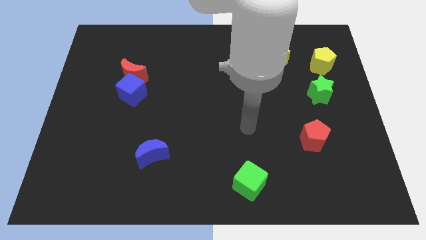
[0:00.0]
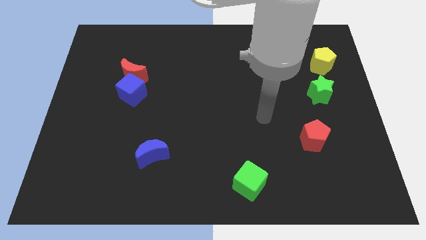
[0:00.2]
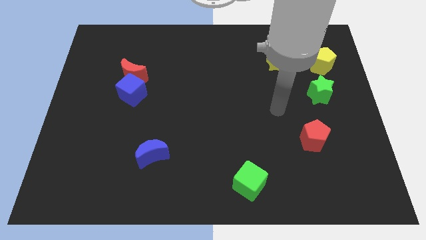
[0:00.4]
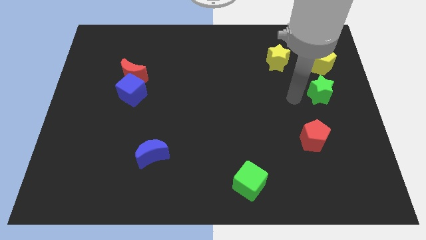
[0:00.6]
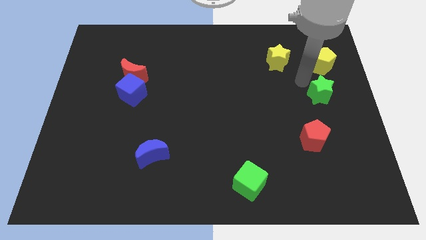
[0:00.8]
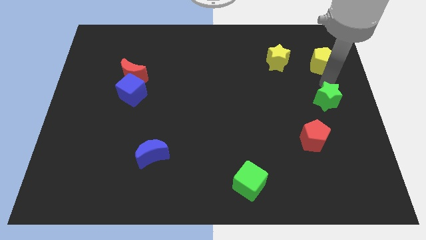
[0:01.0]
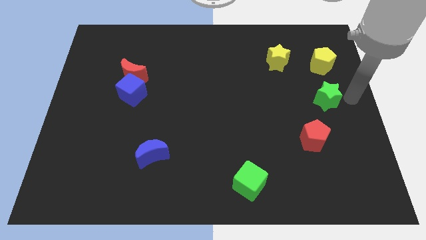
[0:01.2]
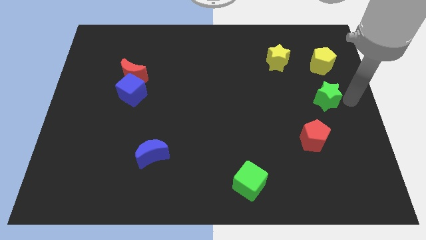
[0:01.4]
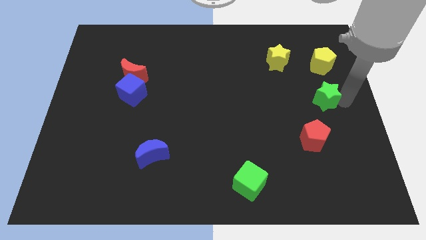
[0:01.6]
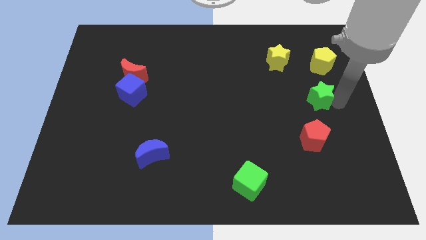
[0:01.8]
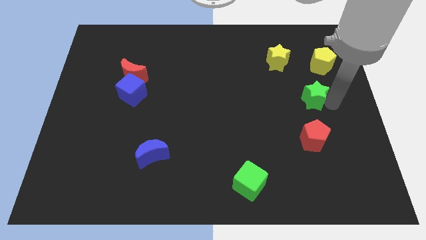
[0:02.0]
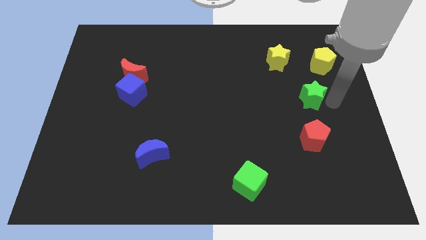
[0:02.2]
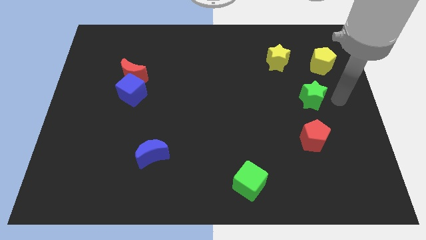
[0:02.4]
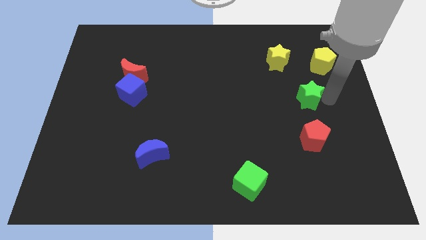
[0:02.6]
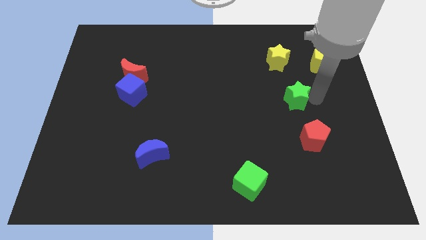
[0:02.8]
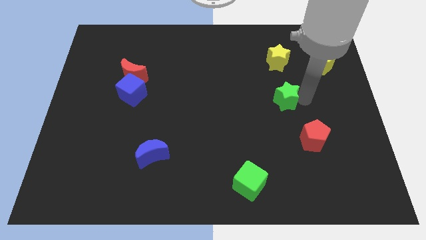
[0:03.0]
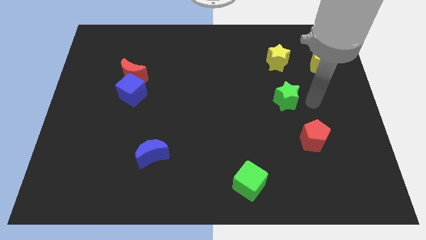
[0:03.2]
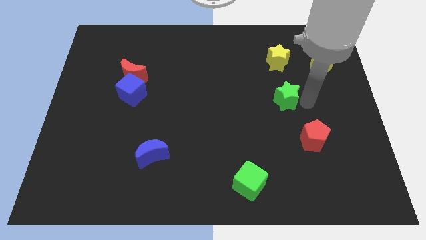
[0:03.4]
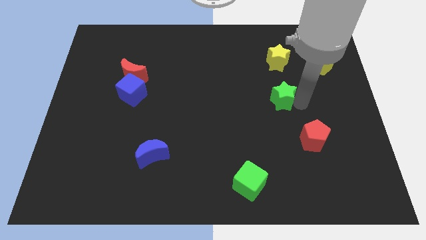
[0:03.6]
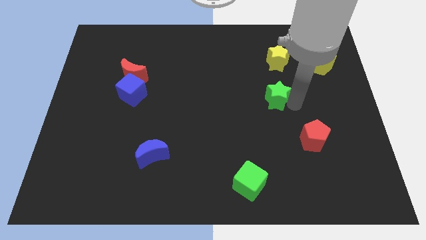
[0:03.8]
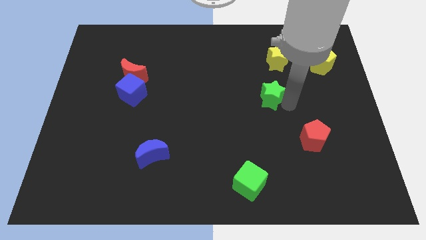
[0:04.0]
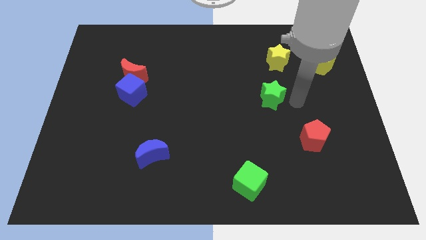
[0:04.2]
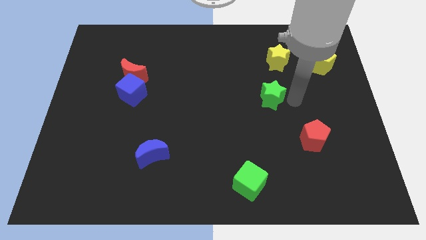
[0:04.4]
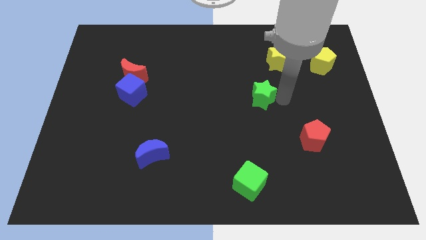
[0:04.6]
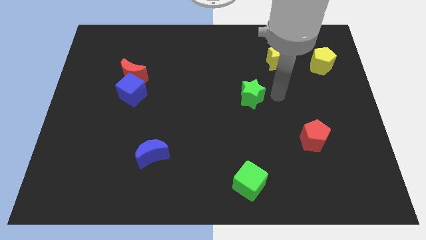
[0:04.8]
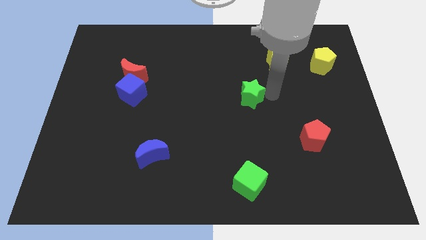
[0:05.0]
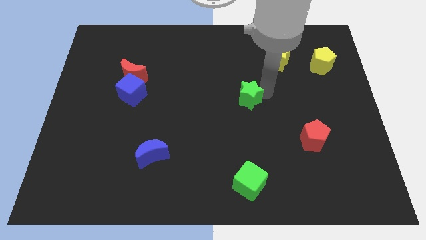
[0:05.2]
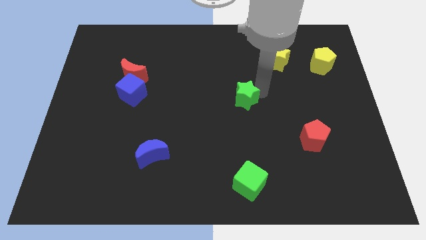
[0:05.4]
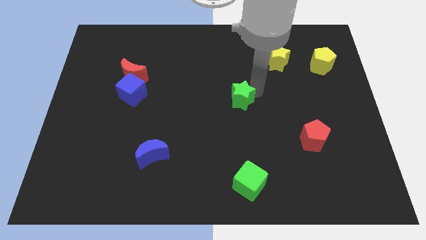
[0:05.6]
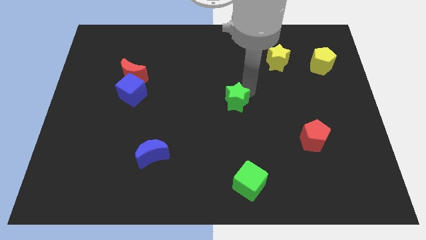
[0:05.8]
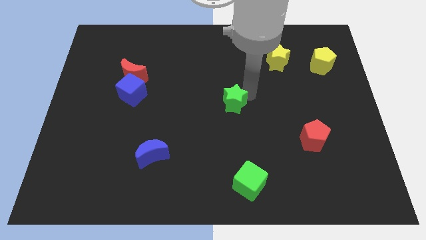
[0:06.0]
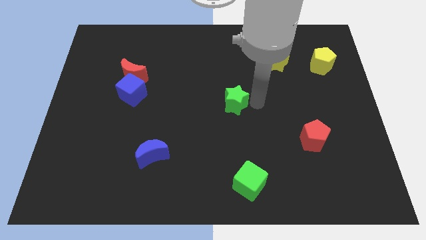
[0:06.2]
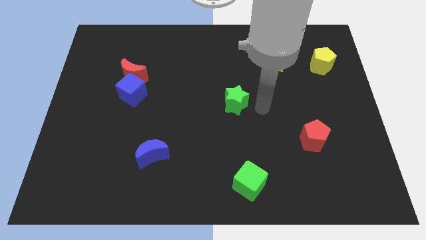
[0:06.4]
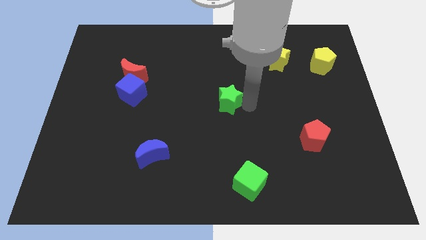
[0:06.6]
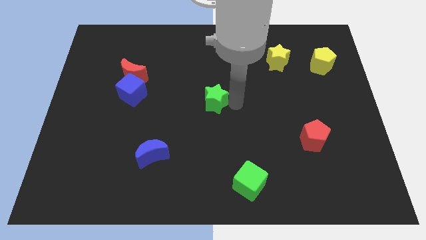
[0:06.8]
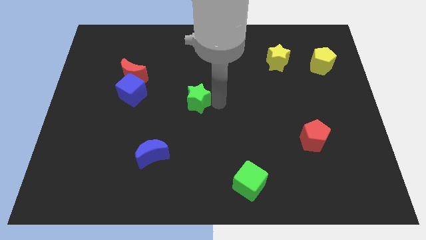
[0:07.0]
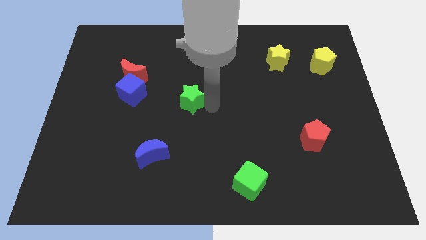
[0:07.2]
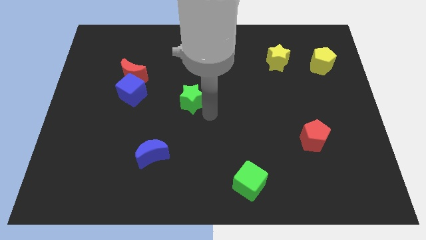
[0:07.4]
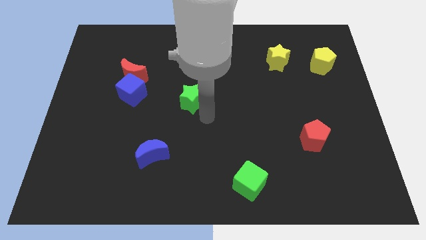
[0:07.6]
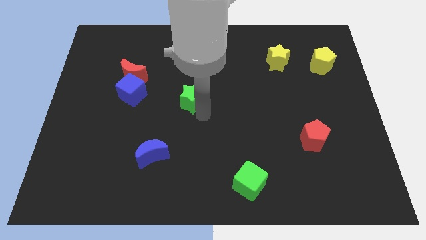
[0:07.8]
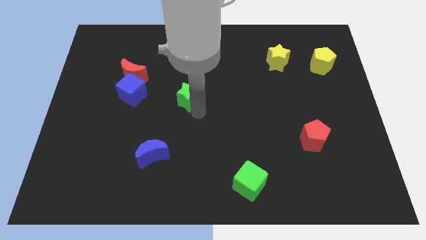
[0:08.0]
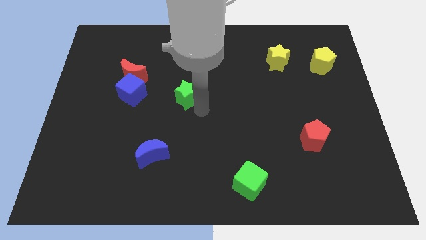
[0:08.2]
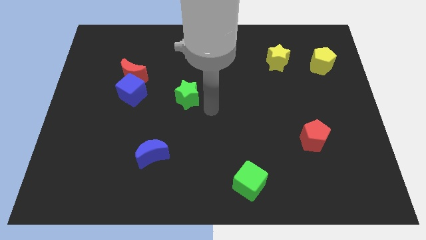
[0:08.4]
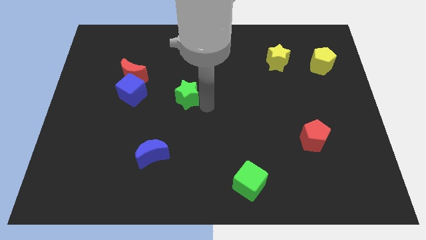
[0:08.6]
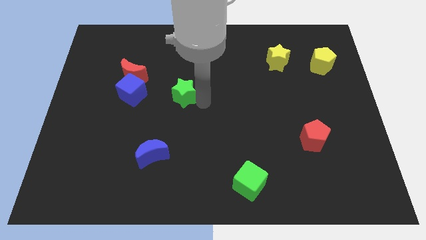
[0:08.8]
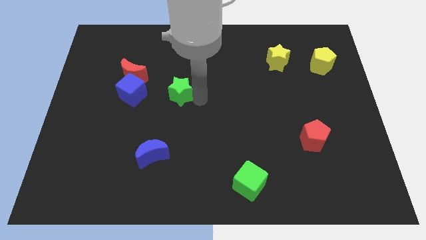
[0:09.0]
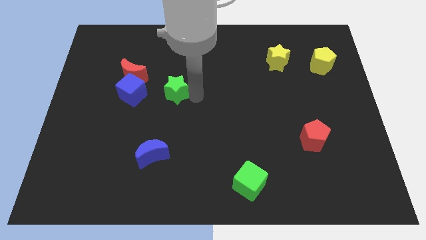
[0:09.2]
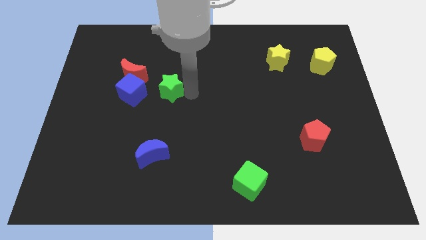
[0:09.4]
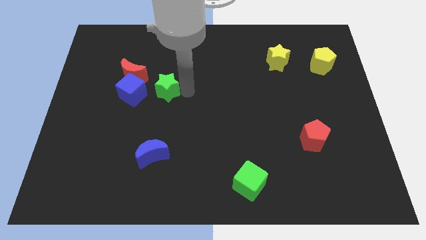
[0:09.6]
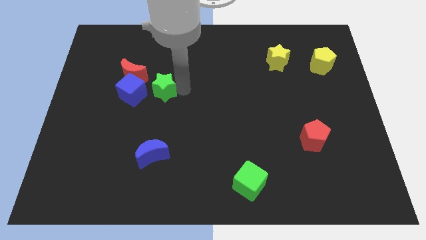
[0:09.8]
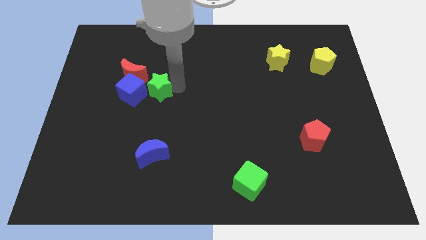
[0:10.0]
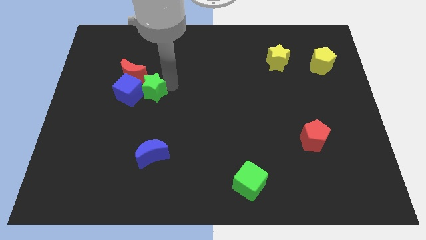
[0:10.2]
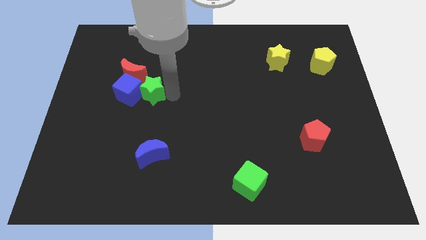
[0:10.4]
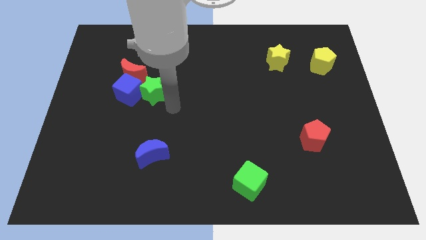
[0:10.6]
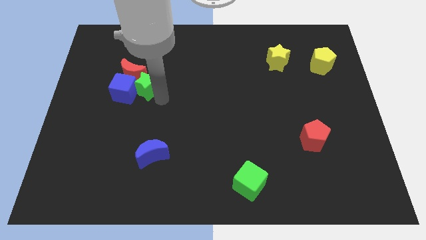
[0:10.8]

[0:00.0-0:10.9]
put the green star close to the red moon

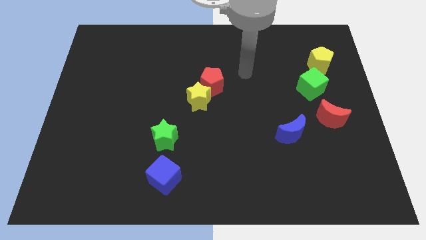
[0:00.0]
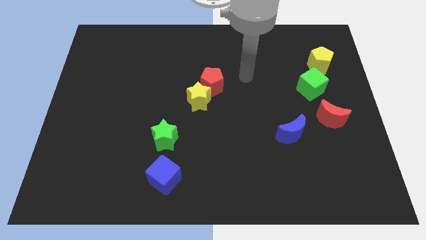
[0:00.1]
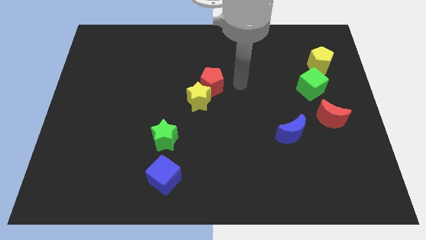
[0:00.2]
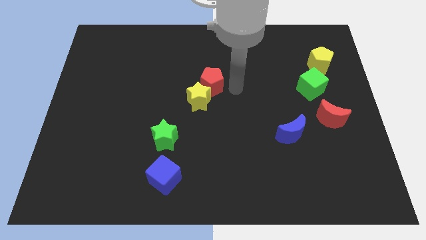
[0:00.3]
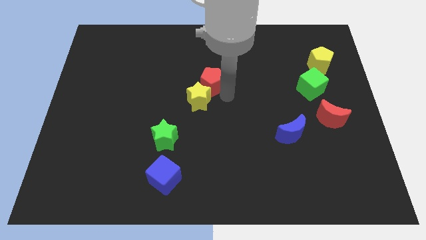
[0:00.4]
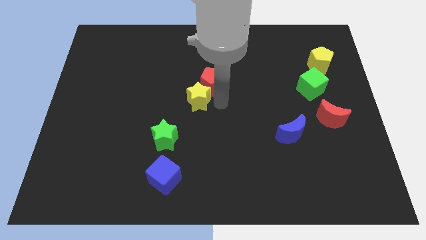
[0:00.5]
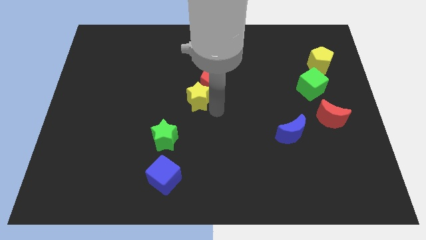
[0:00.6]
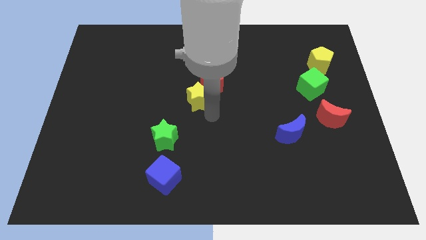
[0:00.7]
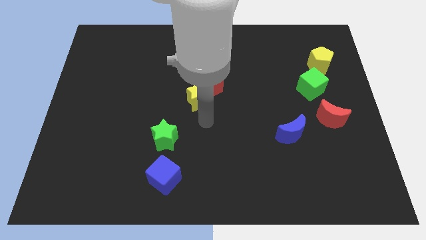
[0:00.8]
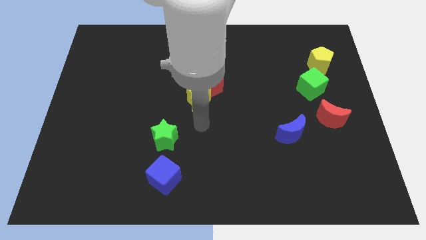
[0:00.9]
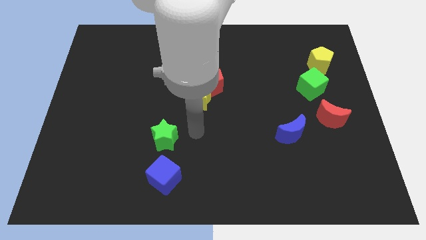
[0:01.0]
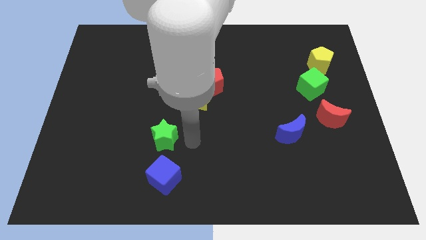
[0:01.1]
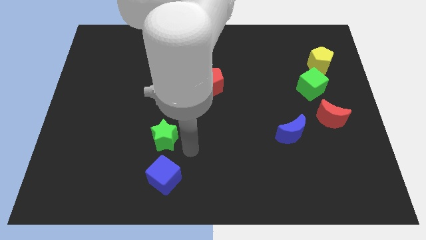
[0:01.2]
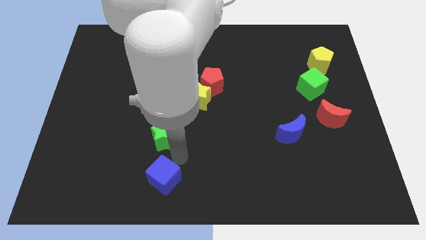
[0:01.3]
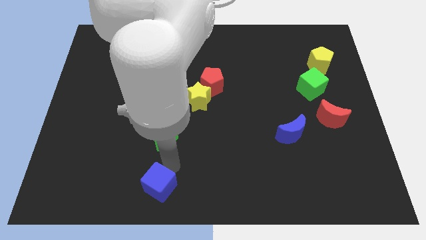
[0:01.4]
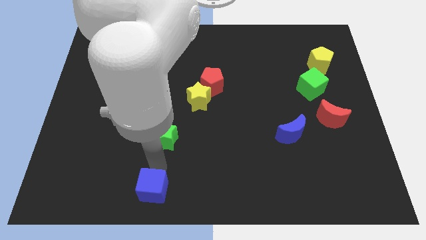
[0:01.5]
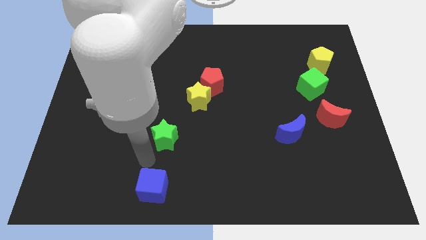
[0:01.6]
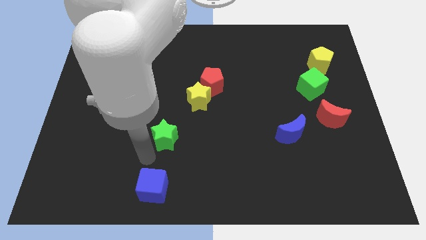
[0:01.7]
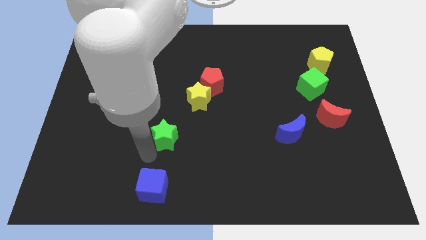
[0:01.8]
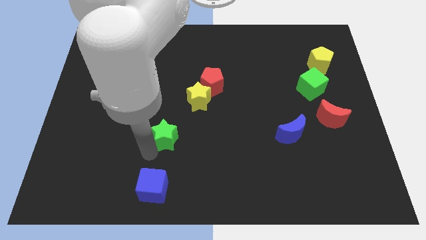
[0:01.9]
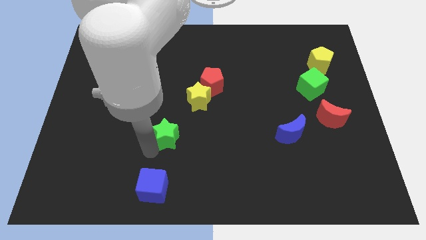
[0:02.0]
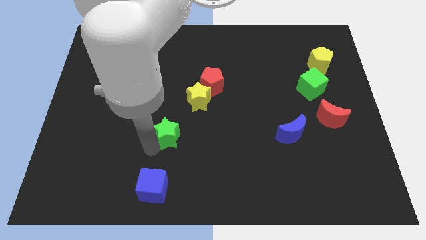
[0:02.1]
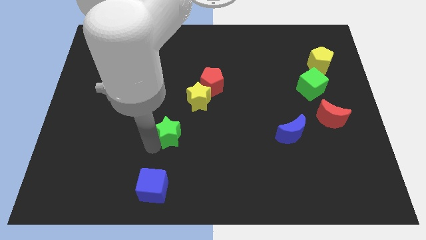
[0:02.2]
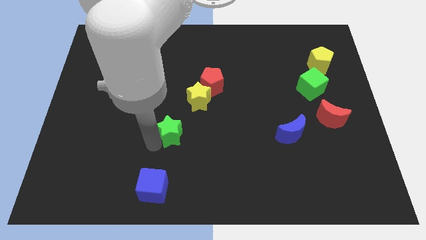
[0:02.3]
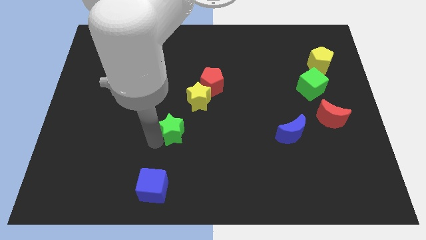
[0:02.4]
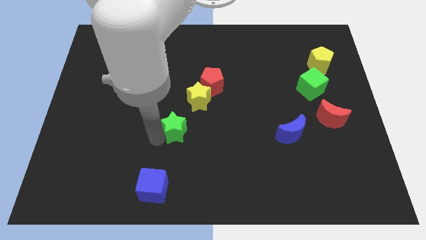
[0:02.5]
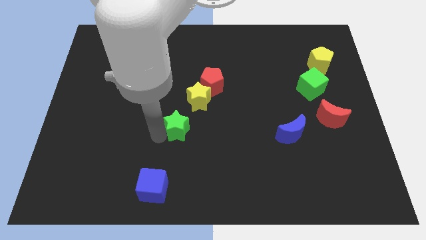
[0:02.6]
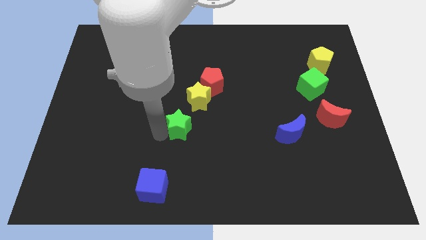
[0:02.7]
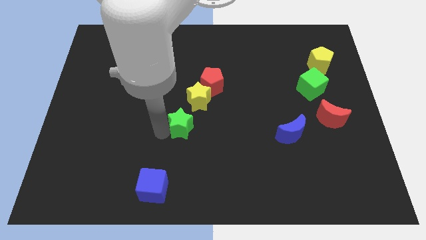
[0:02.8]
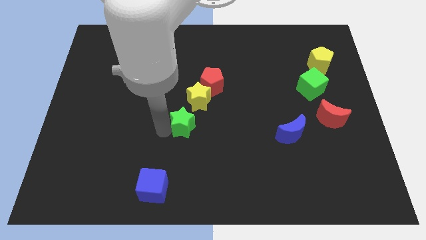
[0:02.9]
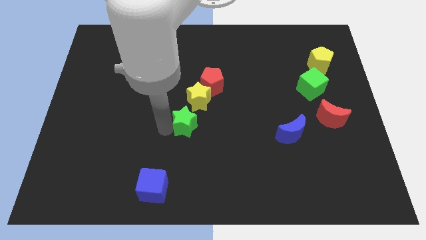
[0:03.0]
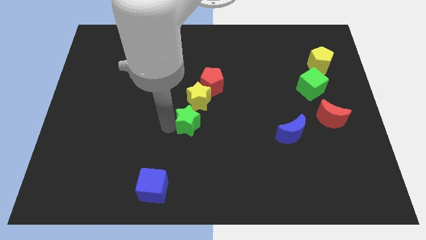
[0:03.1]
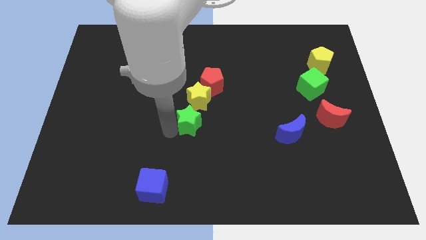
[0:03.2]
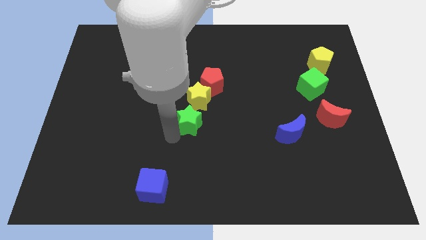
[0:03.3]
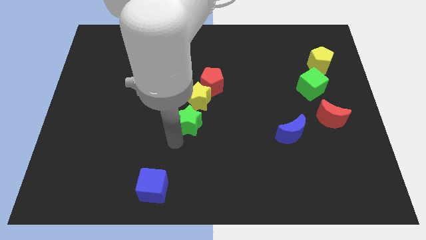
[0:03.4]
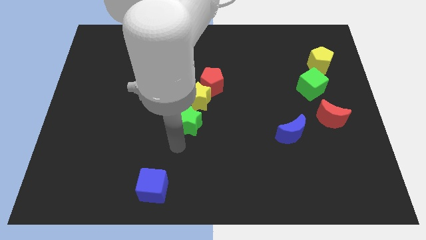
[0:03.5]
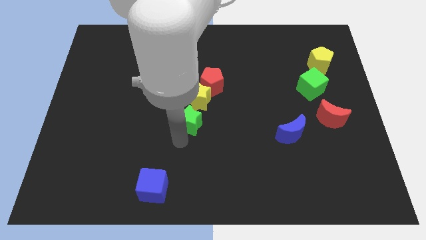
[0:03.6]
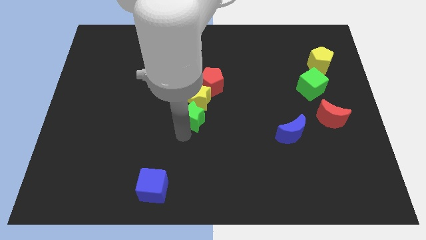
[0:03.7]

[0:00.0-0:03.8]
push the green star towards the yellow star
